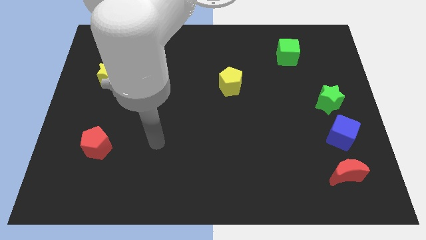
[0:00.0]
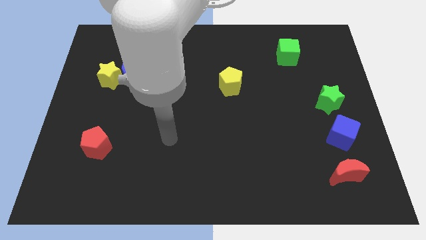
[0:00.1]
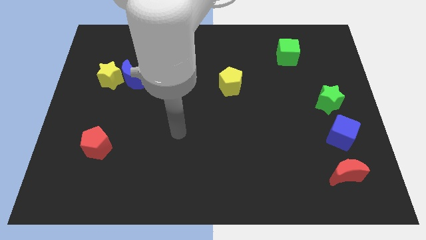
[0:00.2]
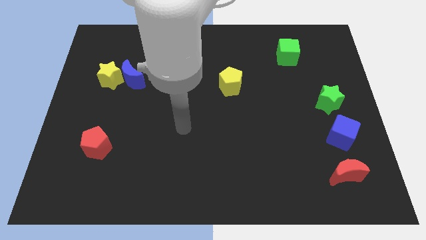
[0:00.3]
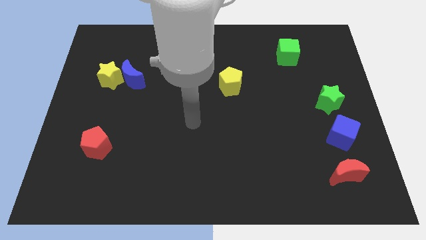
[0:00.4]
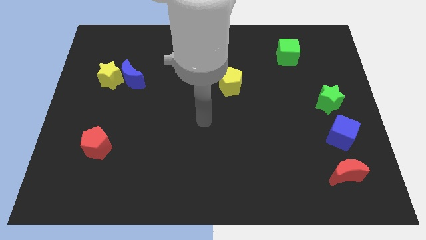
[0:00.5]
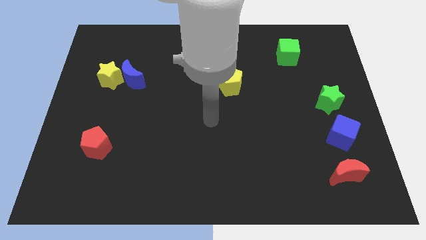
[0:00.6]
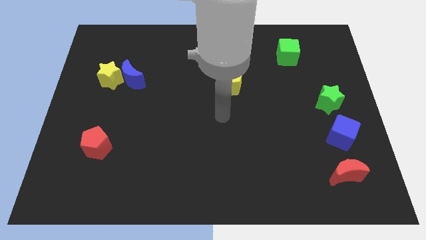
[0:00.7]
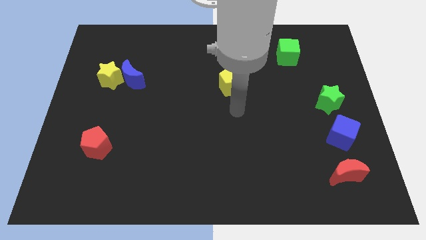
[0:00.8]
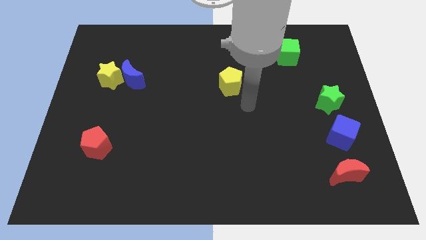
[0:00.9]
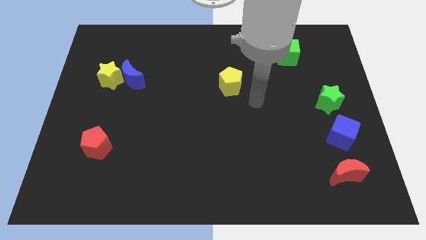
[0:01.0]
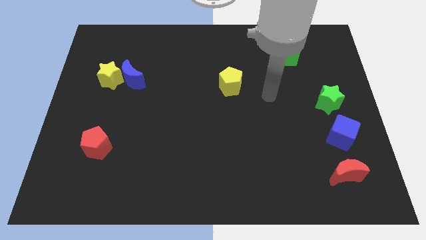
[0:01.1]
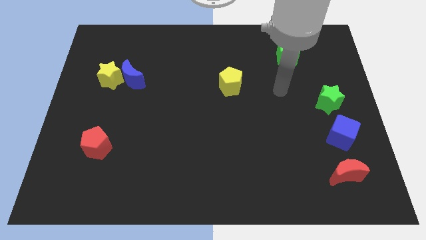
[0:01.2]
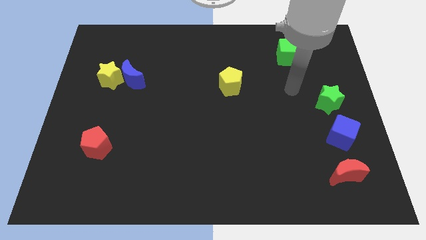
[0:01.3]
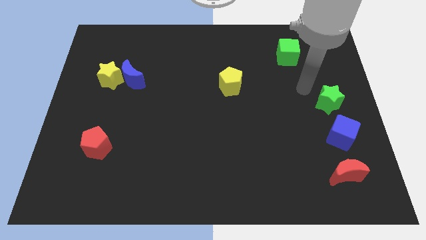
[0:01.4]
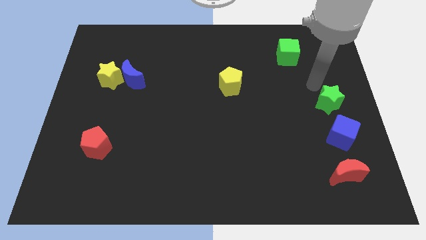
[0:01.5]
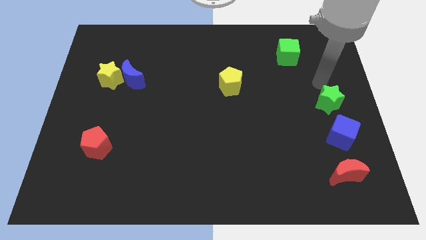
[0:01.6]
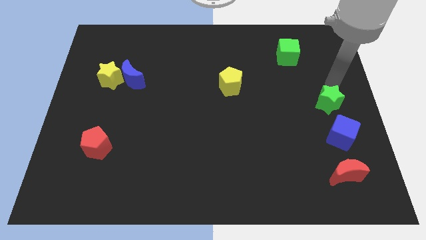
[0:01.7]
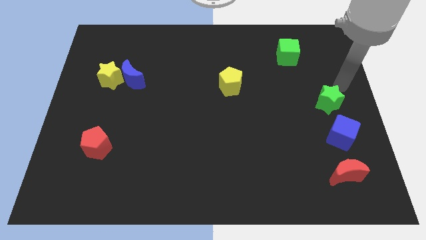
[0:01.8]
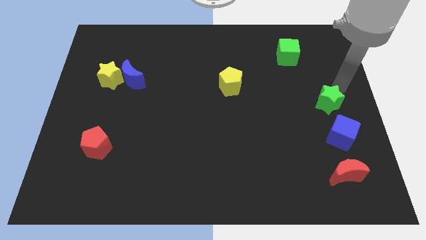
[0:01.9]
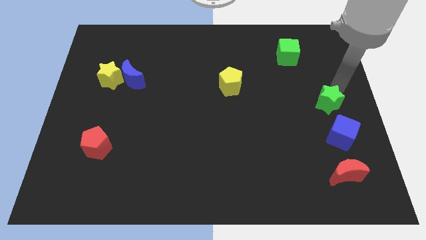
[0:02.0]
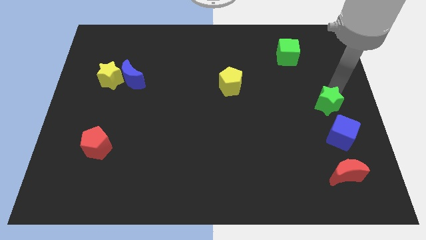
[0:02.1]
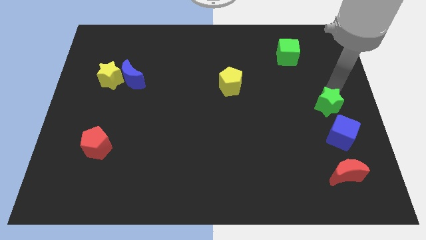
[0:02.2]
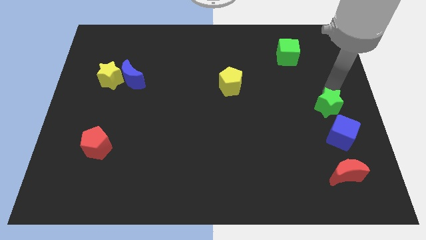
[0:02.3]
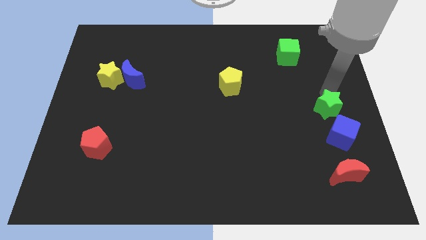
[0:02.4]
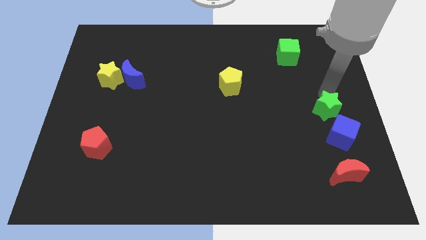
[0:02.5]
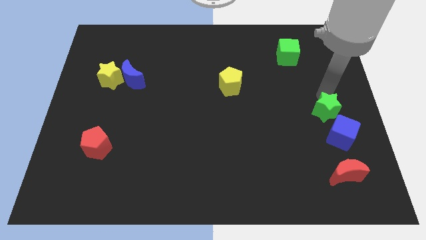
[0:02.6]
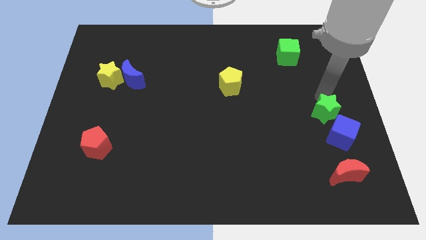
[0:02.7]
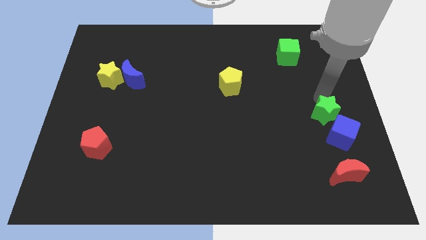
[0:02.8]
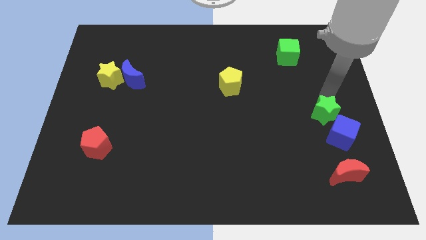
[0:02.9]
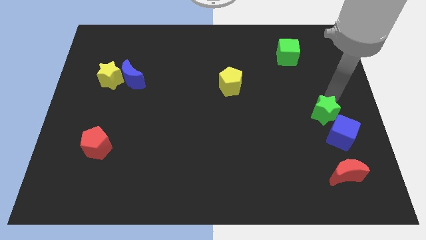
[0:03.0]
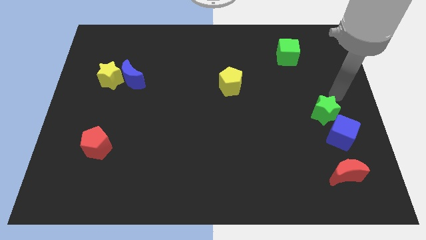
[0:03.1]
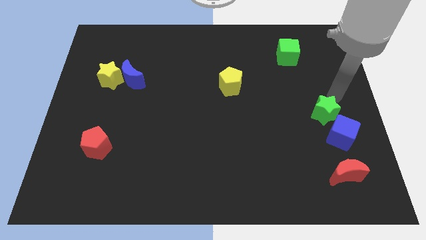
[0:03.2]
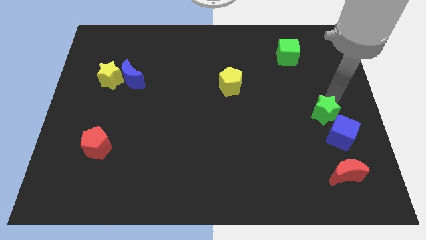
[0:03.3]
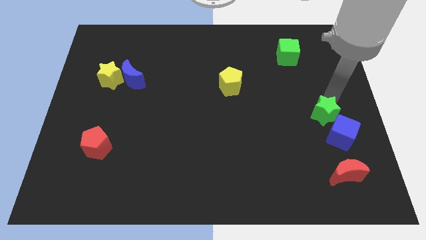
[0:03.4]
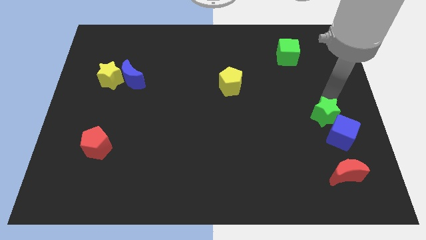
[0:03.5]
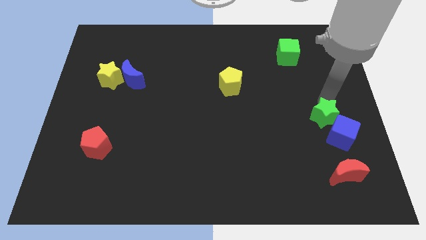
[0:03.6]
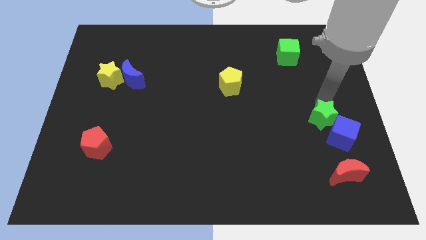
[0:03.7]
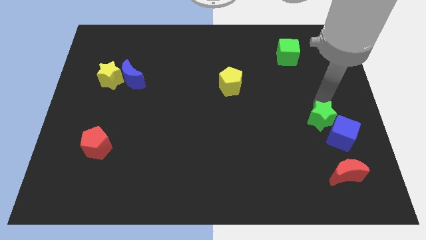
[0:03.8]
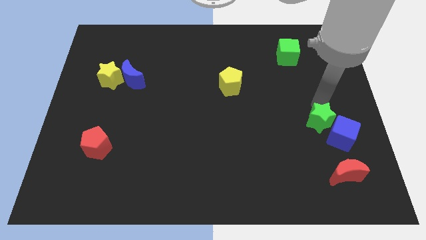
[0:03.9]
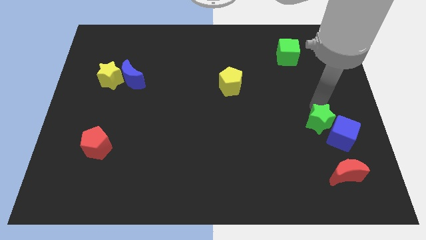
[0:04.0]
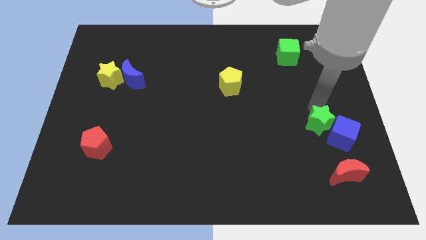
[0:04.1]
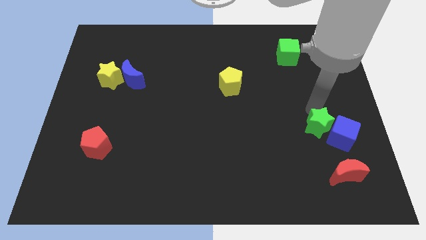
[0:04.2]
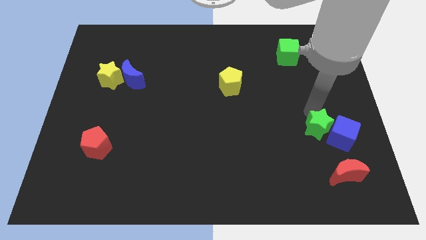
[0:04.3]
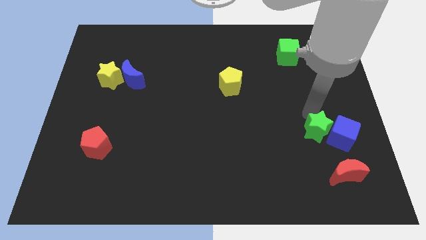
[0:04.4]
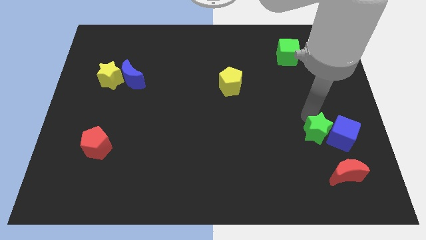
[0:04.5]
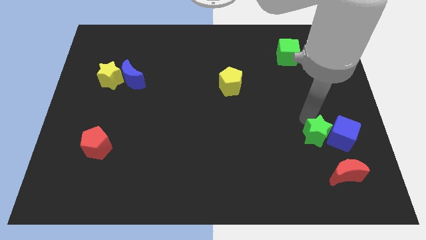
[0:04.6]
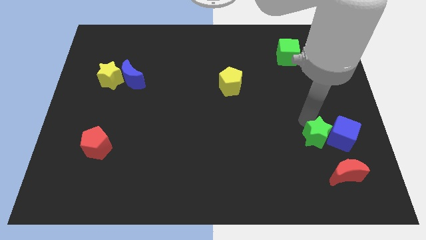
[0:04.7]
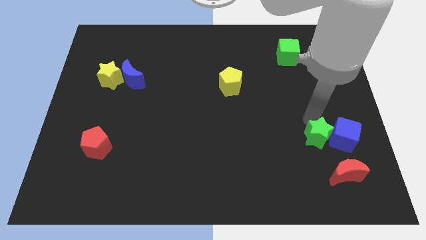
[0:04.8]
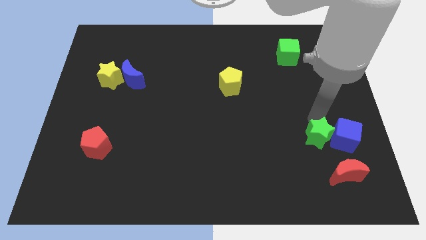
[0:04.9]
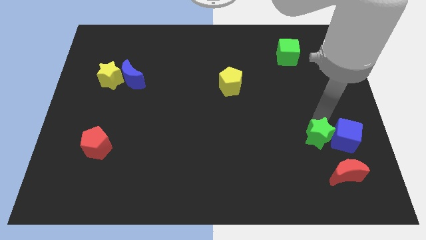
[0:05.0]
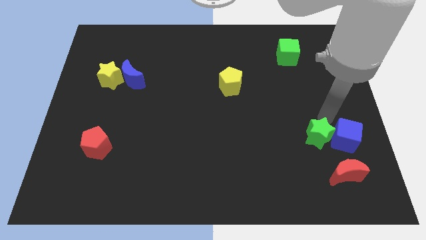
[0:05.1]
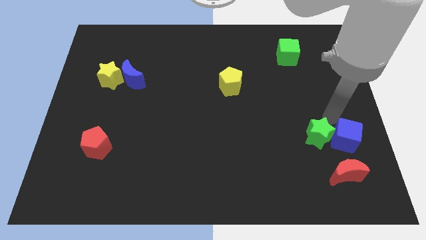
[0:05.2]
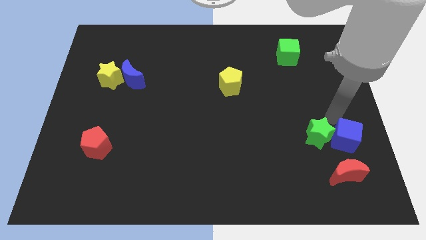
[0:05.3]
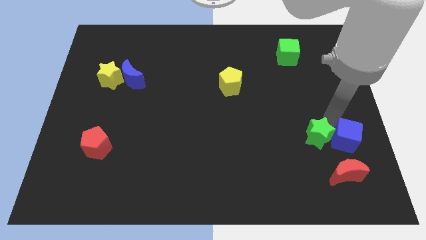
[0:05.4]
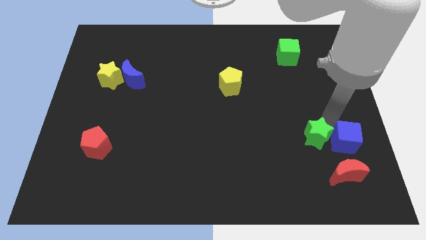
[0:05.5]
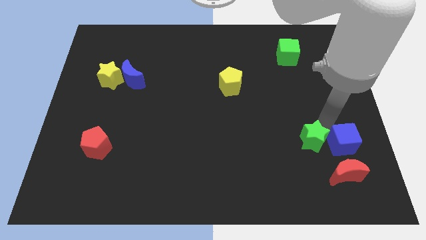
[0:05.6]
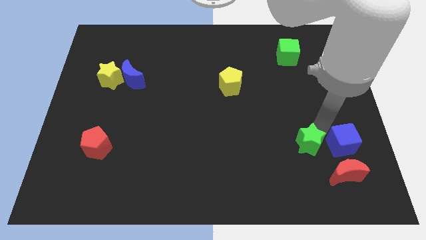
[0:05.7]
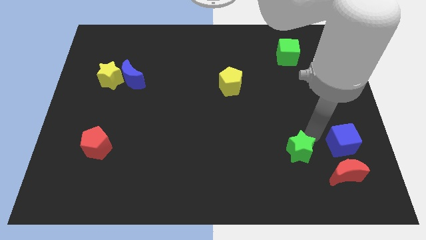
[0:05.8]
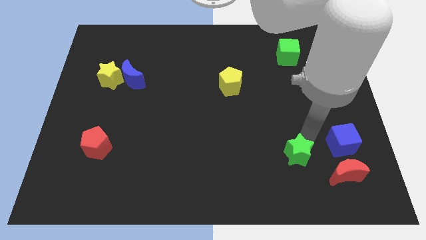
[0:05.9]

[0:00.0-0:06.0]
move the green star to the left of the red moon
